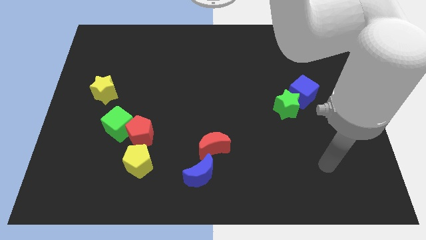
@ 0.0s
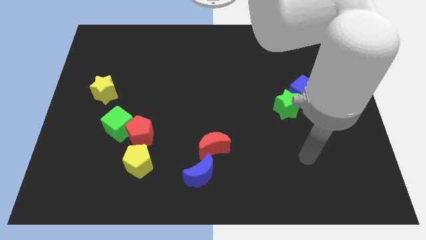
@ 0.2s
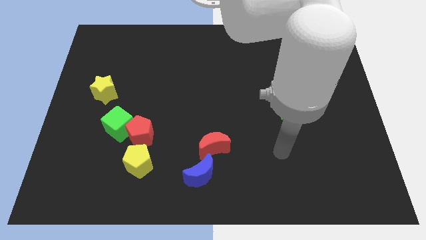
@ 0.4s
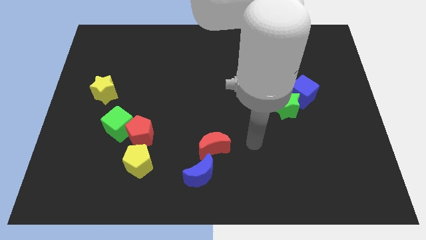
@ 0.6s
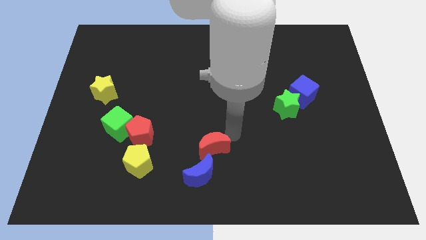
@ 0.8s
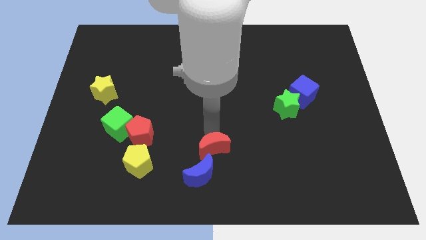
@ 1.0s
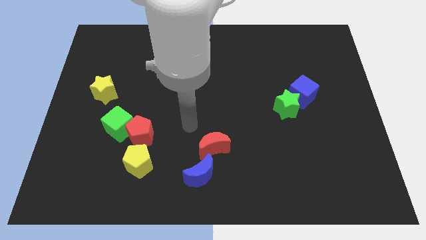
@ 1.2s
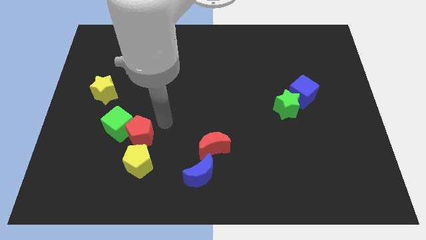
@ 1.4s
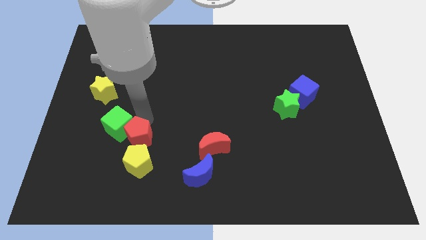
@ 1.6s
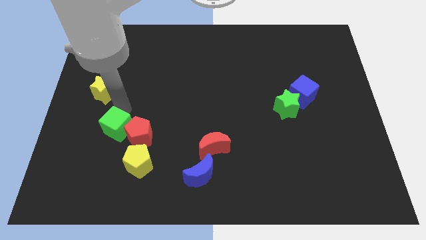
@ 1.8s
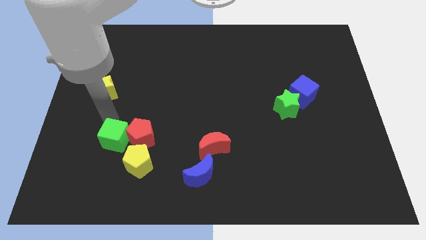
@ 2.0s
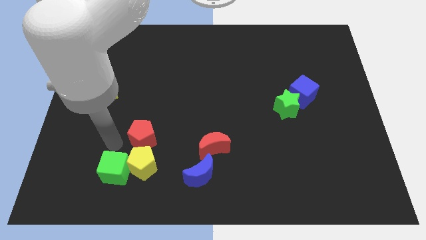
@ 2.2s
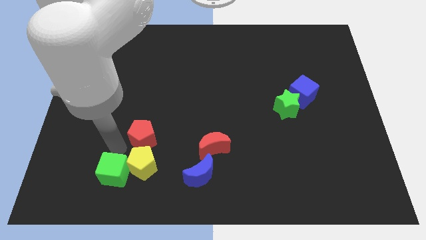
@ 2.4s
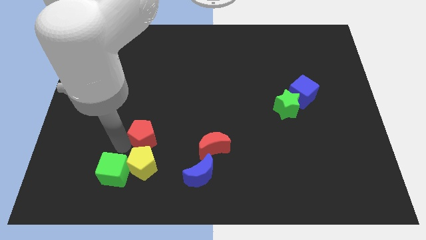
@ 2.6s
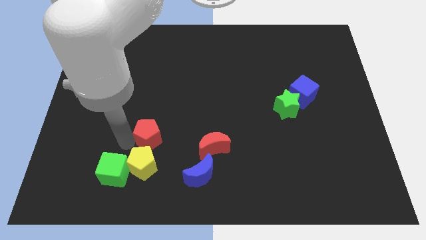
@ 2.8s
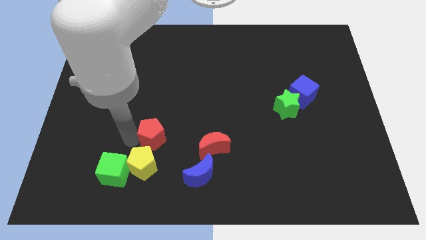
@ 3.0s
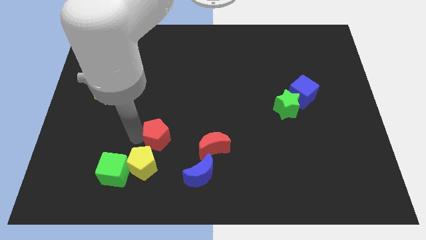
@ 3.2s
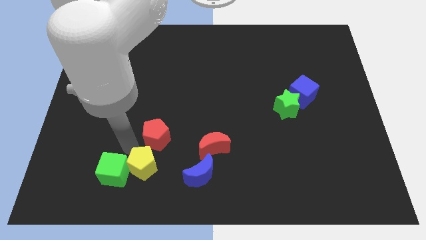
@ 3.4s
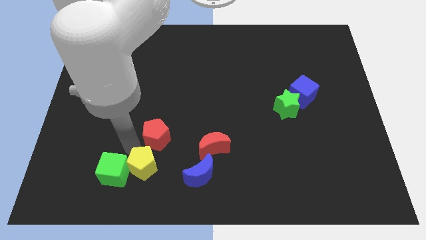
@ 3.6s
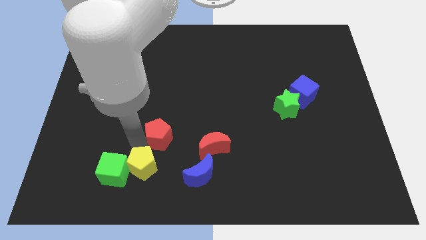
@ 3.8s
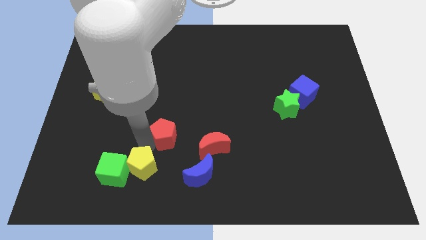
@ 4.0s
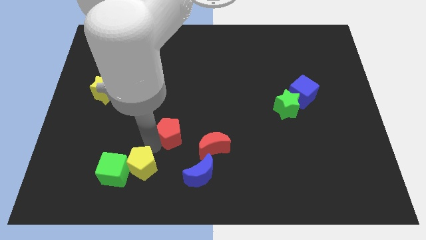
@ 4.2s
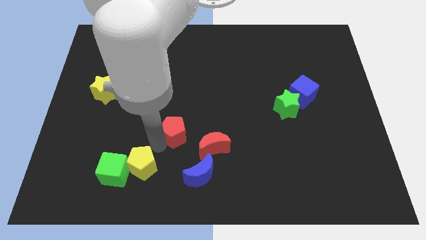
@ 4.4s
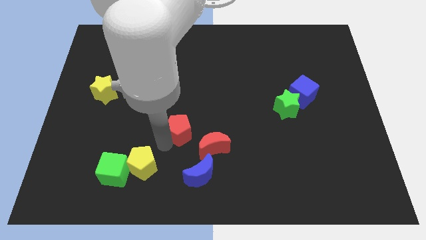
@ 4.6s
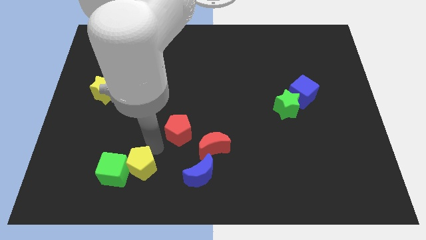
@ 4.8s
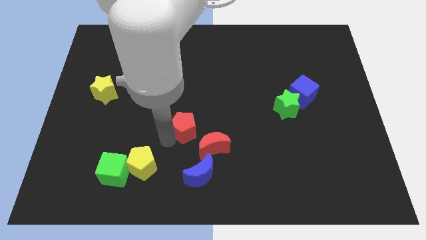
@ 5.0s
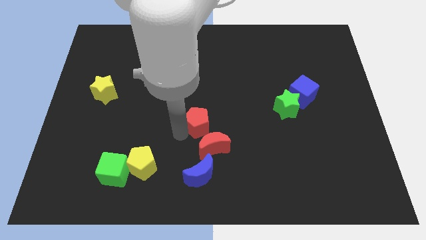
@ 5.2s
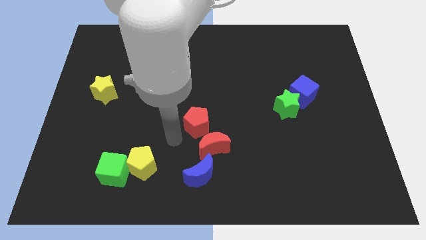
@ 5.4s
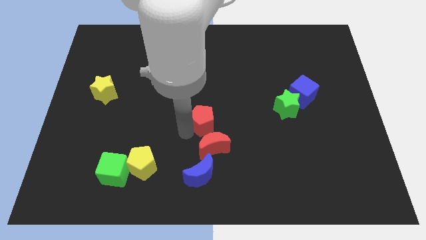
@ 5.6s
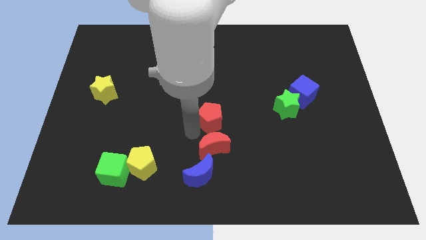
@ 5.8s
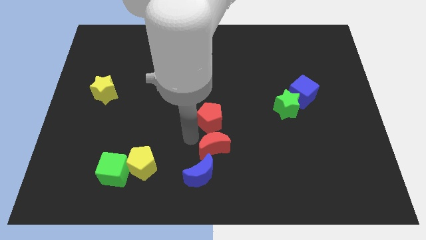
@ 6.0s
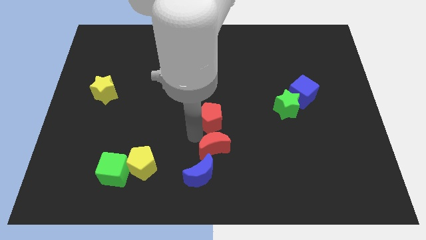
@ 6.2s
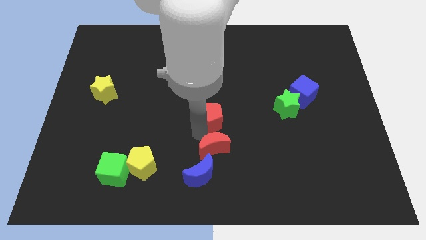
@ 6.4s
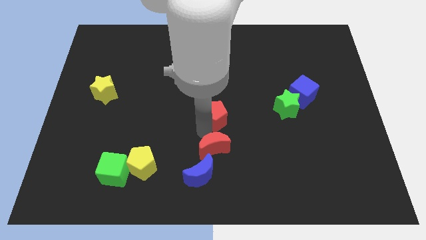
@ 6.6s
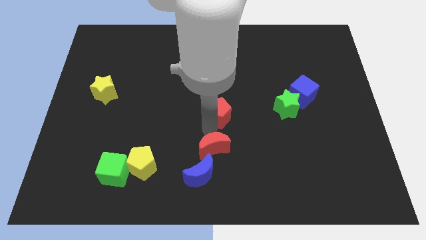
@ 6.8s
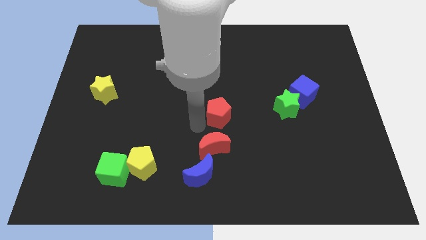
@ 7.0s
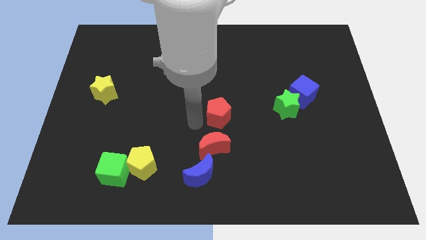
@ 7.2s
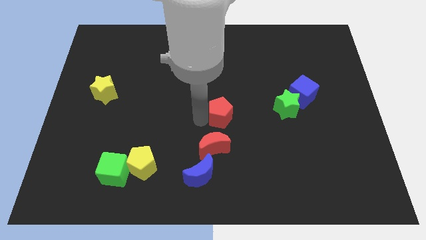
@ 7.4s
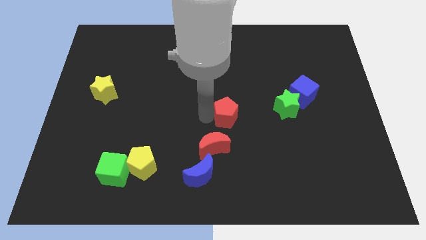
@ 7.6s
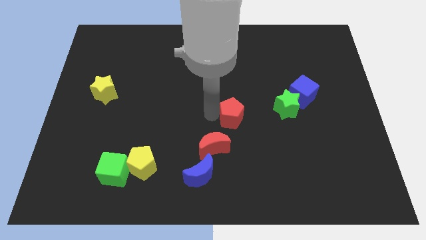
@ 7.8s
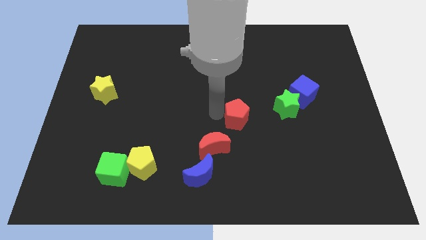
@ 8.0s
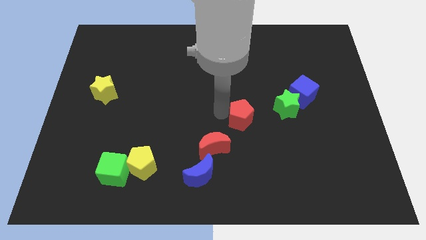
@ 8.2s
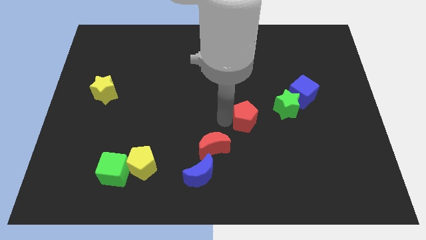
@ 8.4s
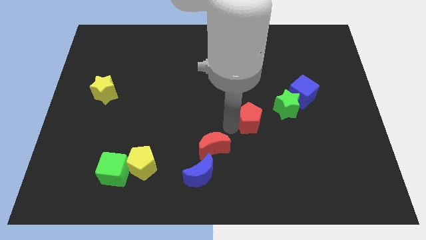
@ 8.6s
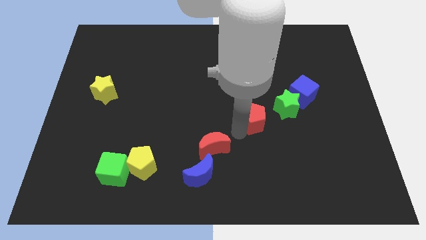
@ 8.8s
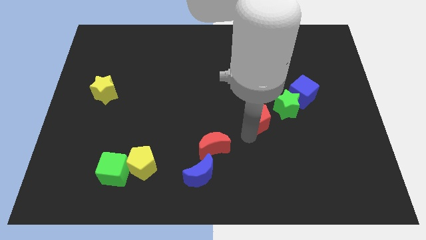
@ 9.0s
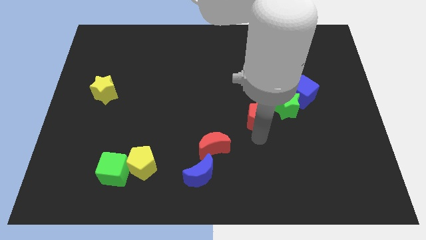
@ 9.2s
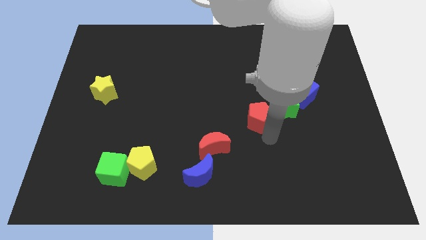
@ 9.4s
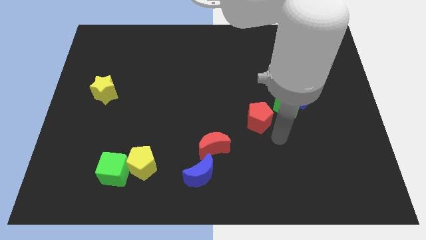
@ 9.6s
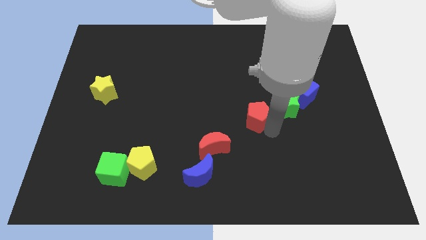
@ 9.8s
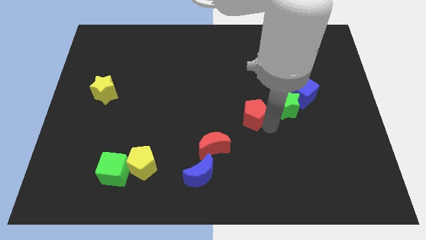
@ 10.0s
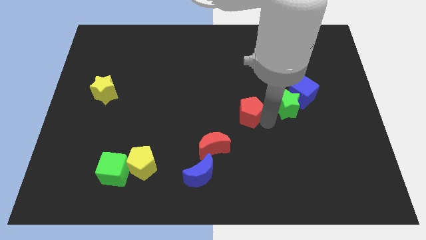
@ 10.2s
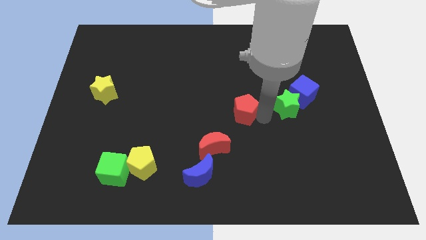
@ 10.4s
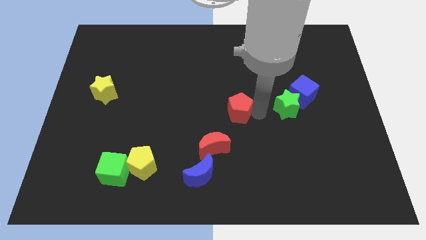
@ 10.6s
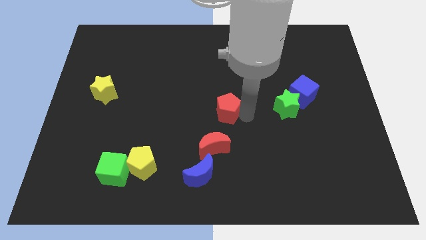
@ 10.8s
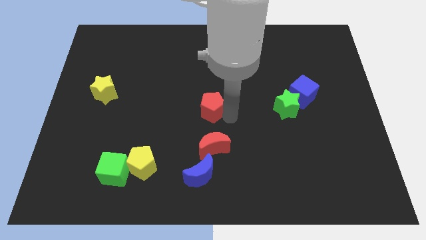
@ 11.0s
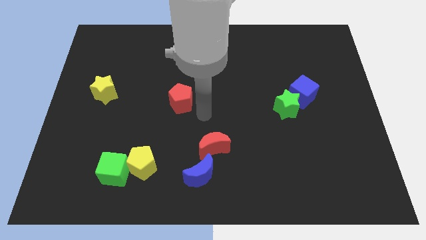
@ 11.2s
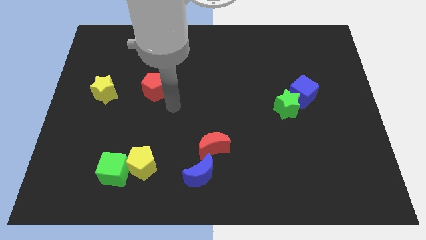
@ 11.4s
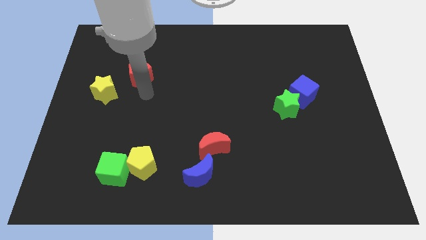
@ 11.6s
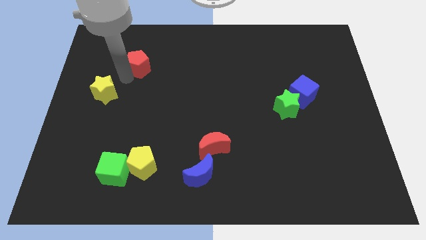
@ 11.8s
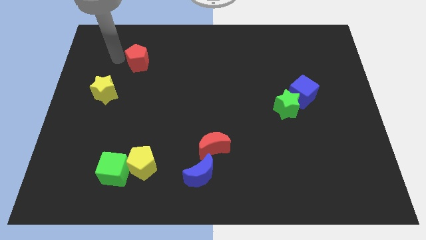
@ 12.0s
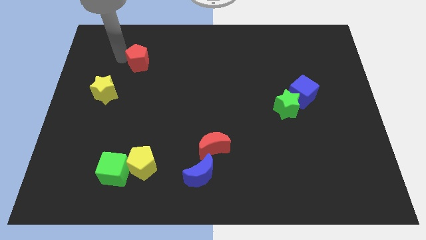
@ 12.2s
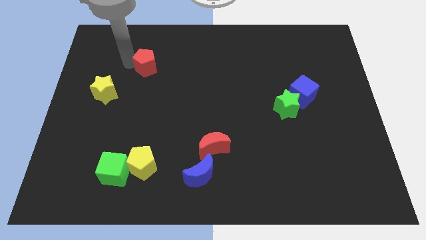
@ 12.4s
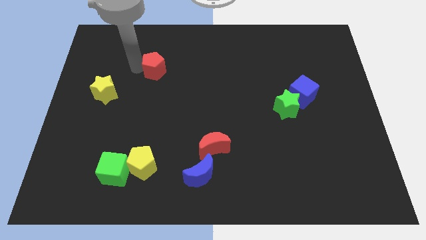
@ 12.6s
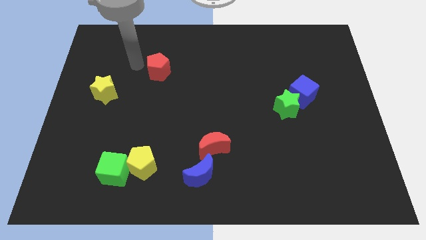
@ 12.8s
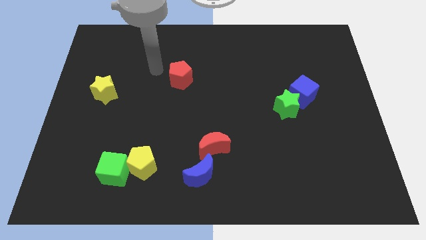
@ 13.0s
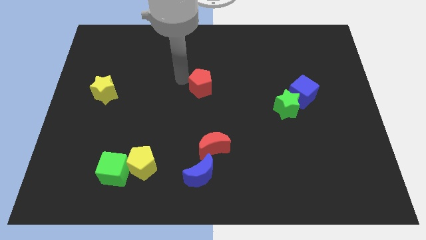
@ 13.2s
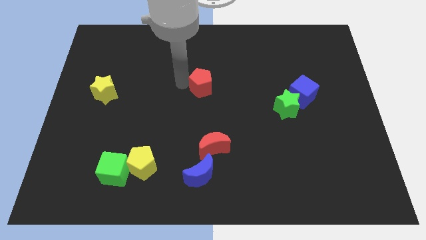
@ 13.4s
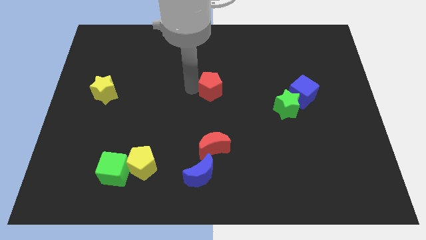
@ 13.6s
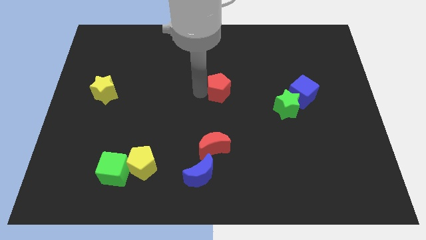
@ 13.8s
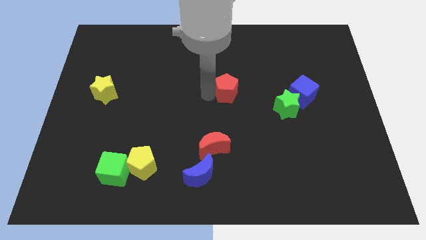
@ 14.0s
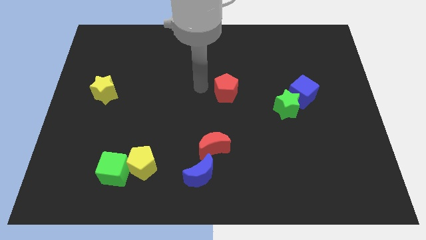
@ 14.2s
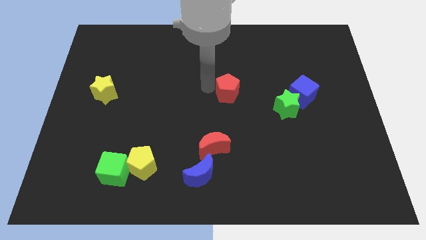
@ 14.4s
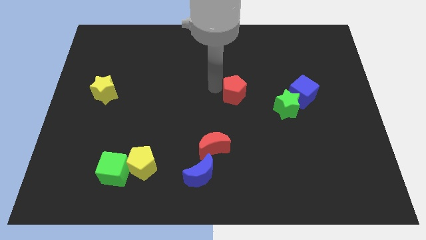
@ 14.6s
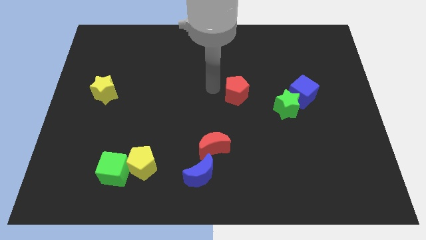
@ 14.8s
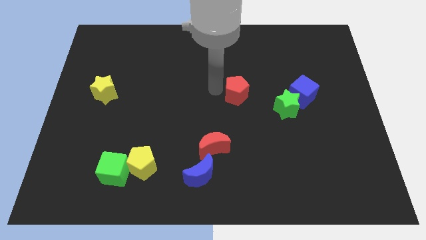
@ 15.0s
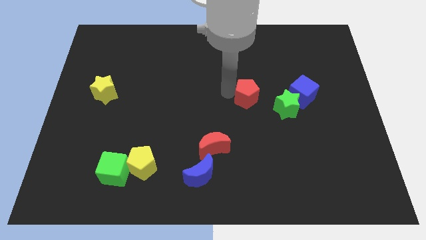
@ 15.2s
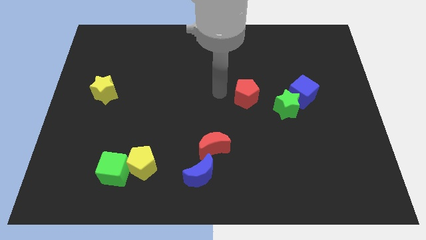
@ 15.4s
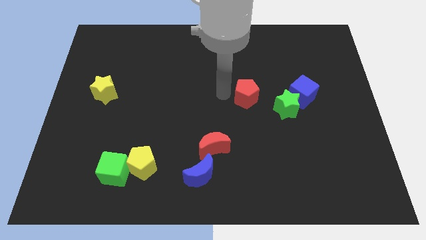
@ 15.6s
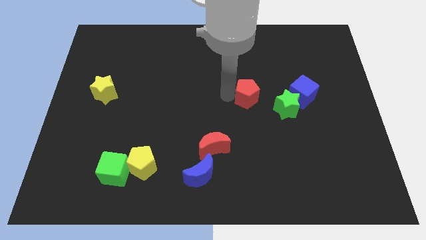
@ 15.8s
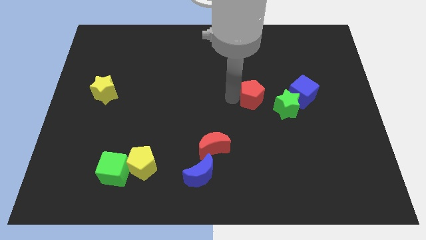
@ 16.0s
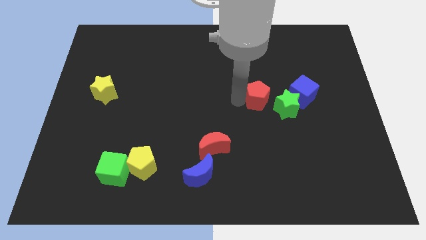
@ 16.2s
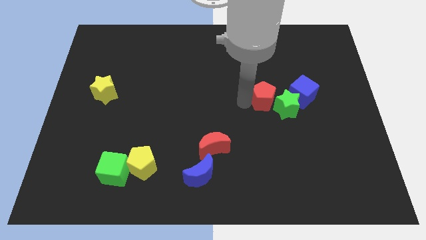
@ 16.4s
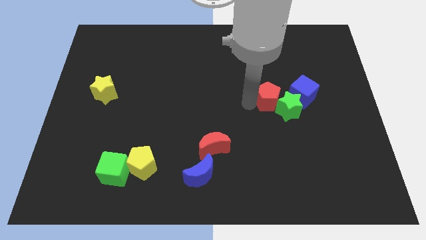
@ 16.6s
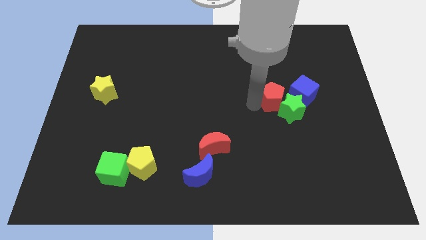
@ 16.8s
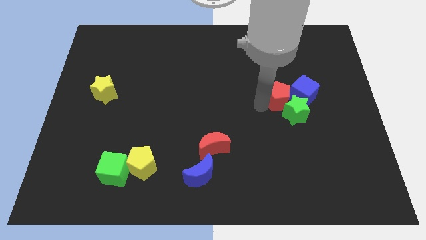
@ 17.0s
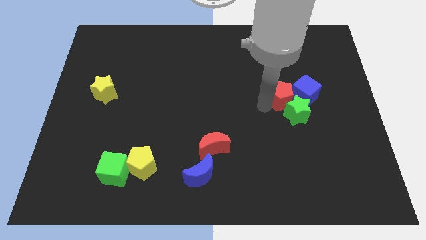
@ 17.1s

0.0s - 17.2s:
move the red pentagon close to the blue cube
